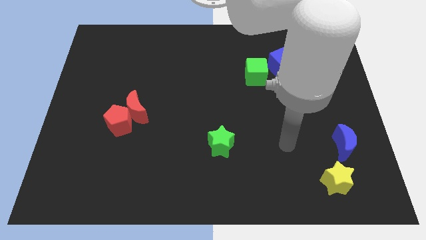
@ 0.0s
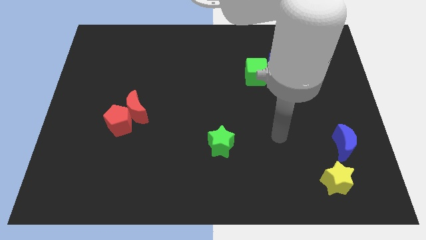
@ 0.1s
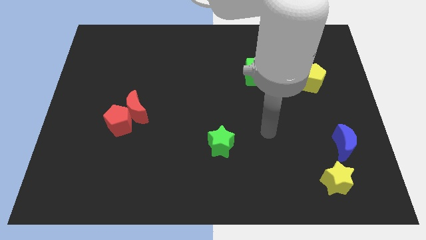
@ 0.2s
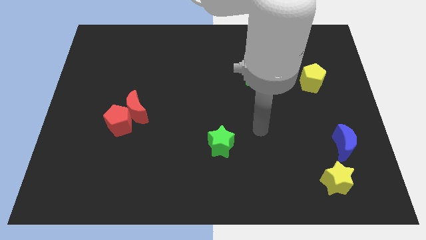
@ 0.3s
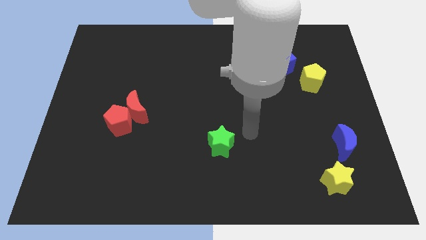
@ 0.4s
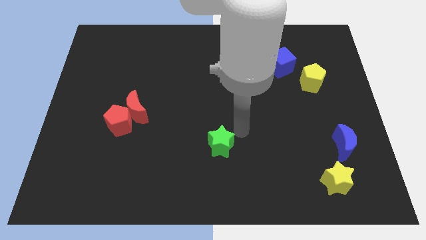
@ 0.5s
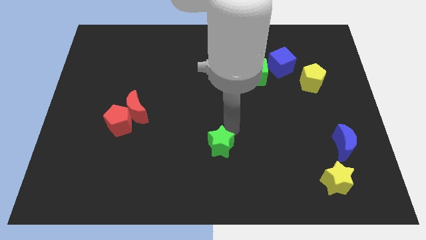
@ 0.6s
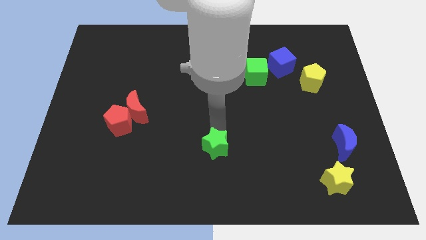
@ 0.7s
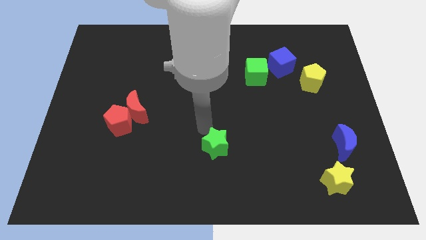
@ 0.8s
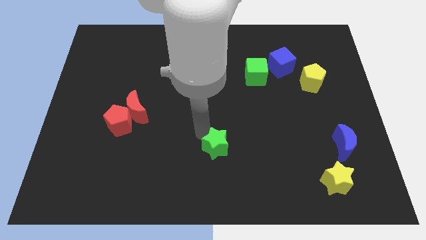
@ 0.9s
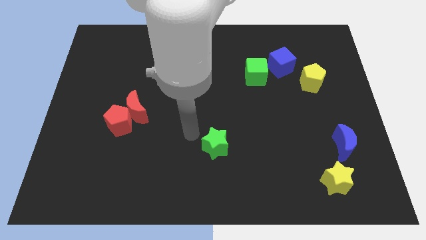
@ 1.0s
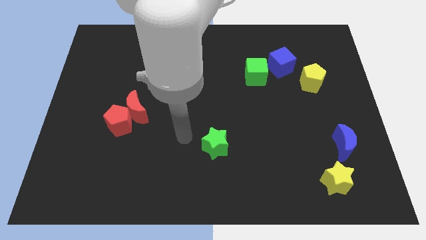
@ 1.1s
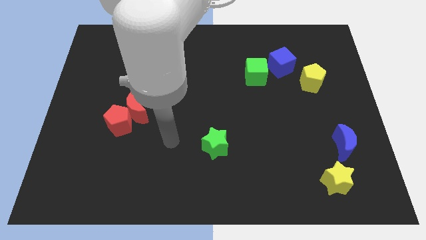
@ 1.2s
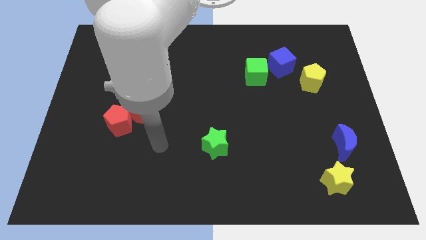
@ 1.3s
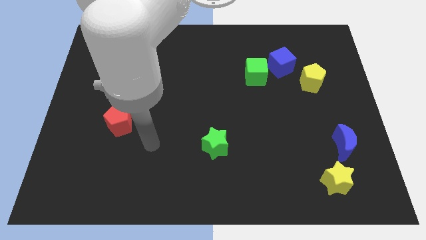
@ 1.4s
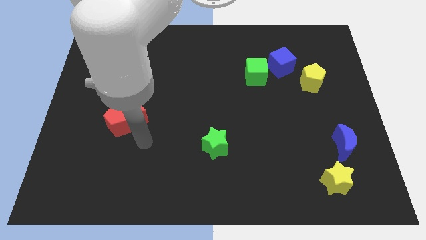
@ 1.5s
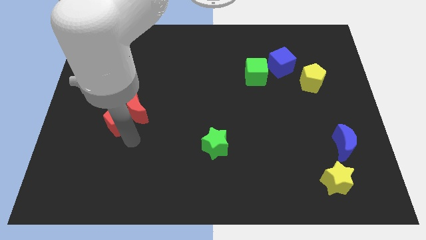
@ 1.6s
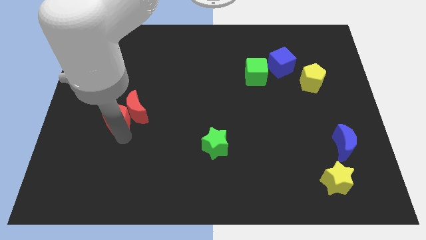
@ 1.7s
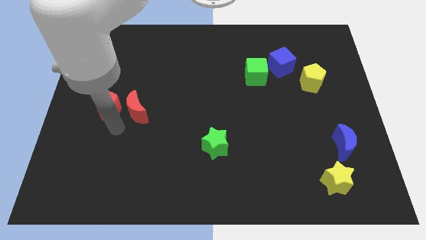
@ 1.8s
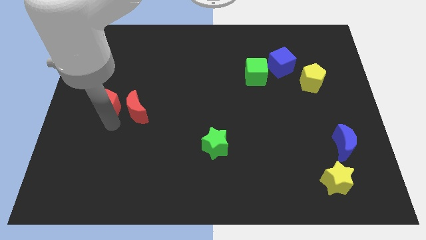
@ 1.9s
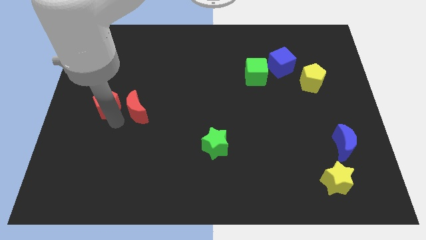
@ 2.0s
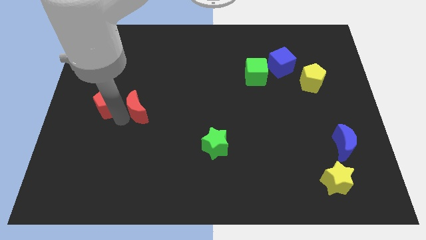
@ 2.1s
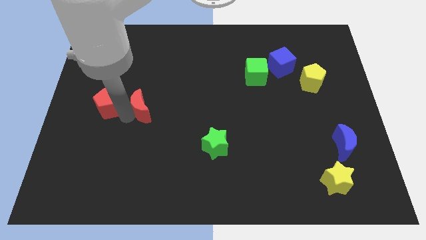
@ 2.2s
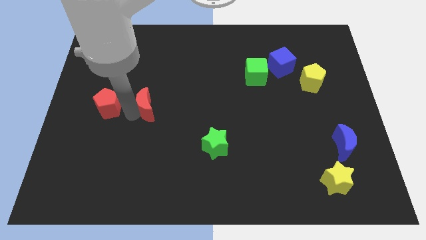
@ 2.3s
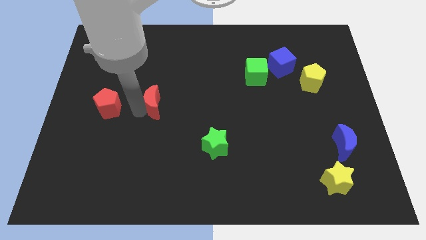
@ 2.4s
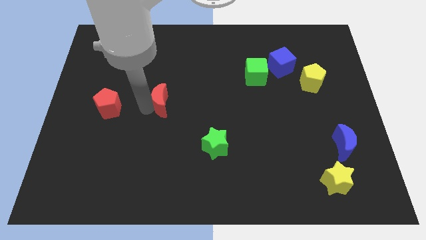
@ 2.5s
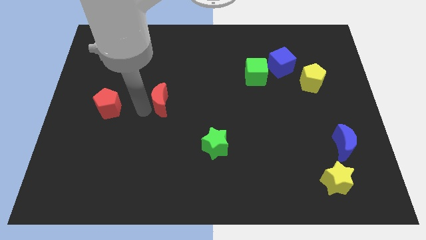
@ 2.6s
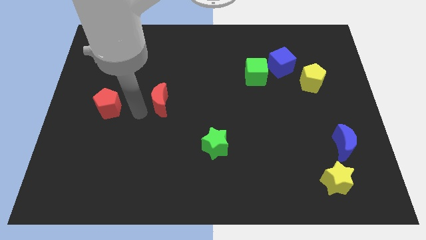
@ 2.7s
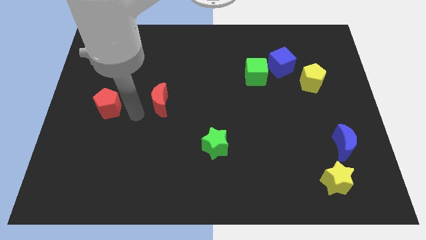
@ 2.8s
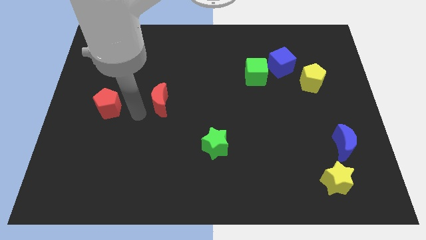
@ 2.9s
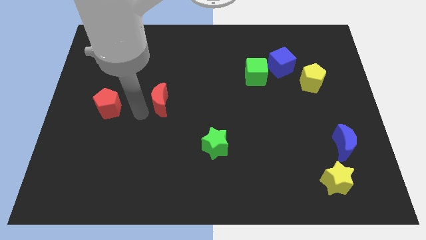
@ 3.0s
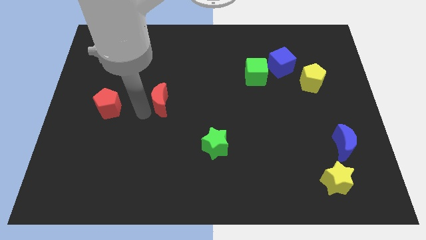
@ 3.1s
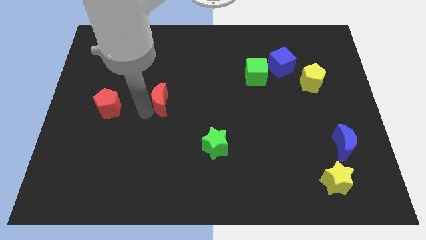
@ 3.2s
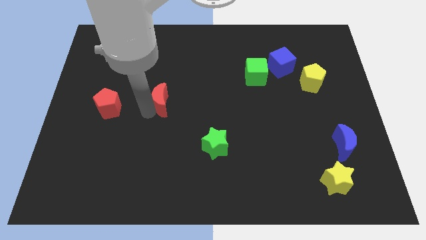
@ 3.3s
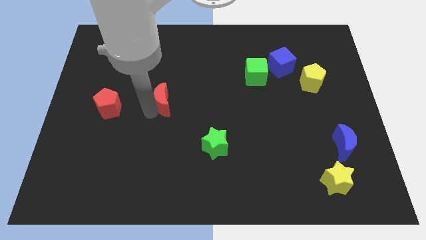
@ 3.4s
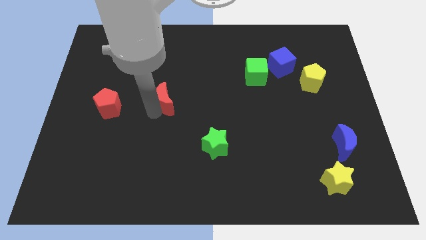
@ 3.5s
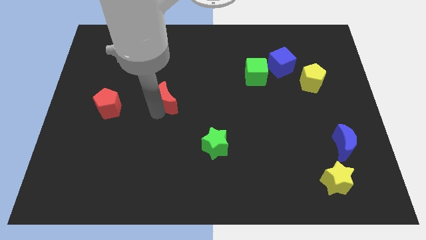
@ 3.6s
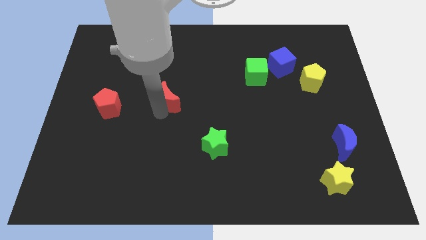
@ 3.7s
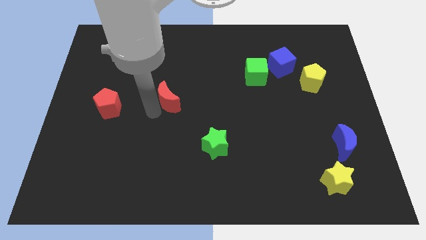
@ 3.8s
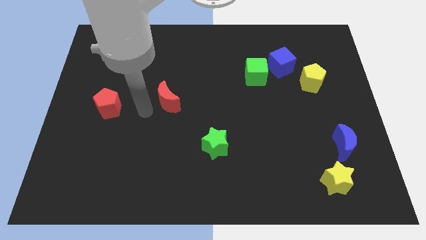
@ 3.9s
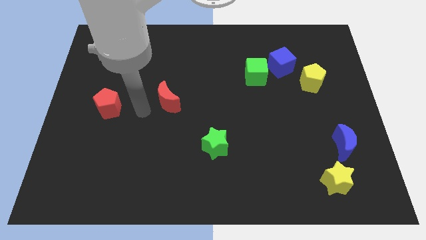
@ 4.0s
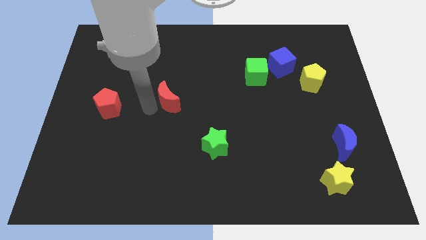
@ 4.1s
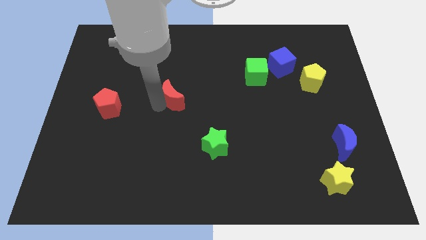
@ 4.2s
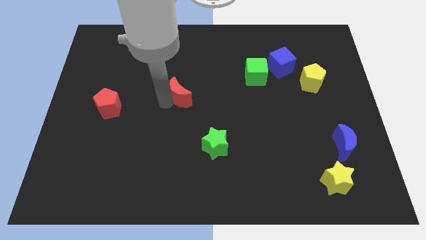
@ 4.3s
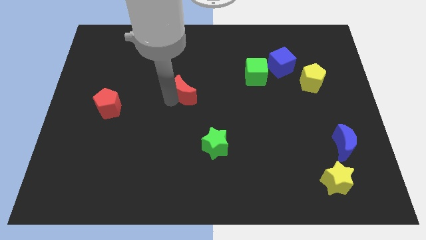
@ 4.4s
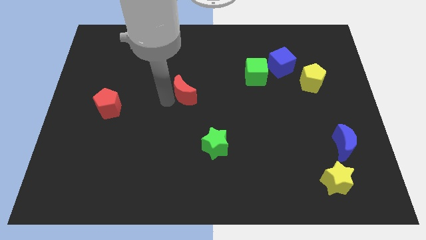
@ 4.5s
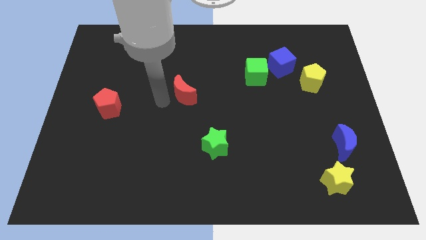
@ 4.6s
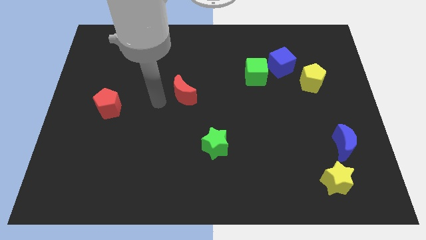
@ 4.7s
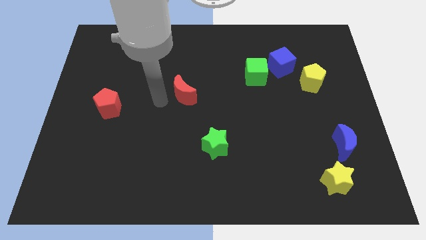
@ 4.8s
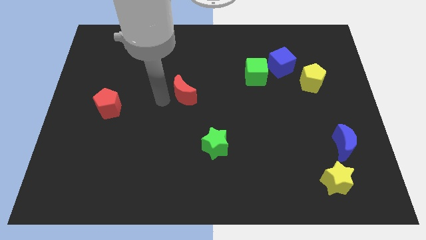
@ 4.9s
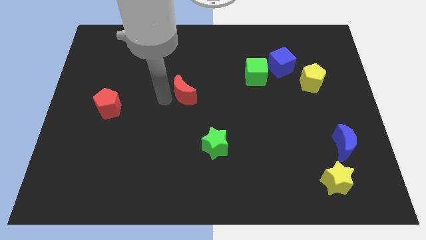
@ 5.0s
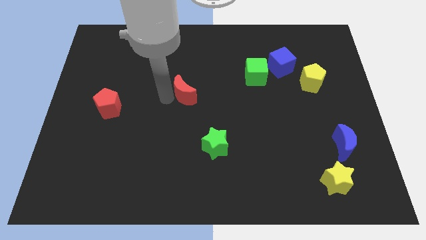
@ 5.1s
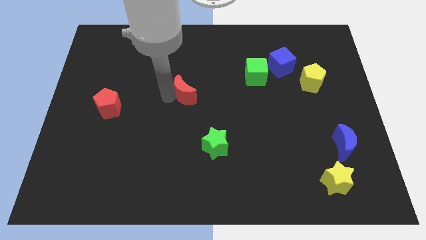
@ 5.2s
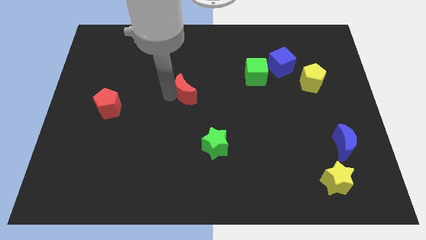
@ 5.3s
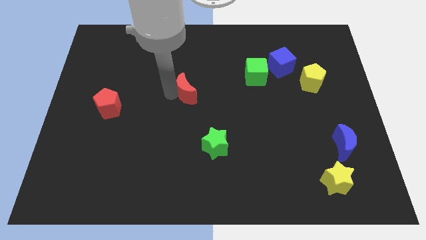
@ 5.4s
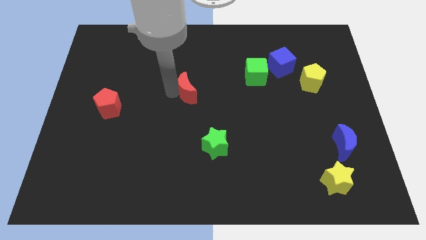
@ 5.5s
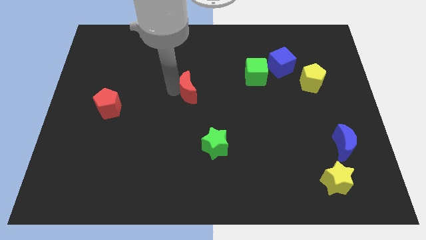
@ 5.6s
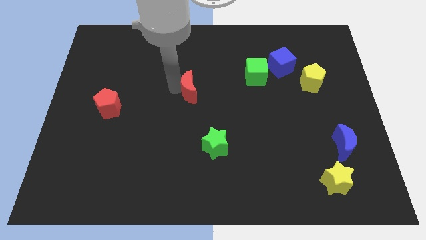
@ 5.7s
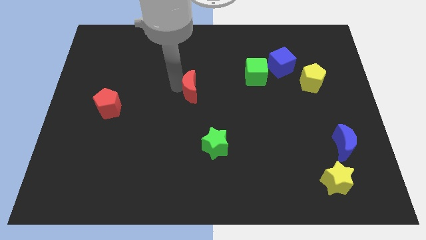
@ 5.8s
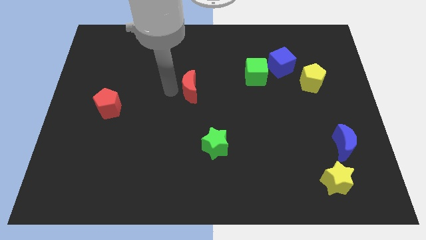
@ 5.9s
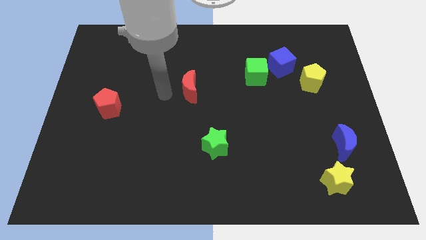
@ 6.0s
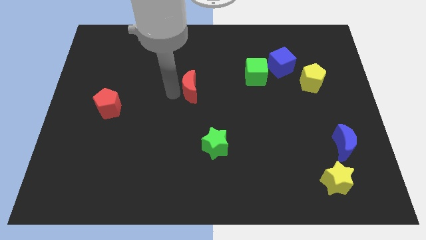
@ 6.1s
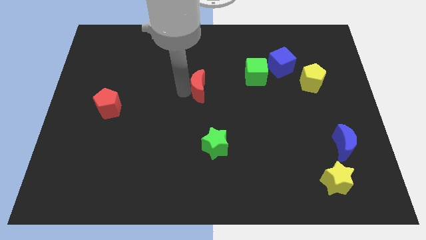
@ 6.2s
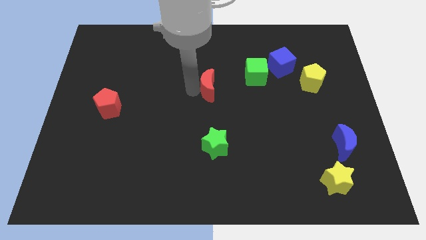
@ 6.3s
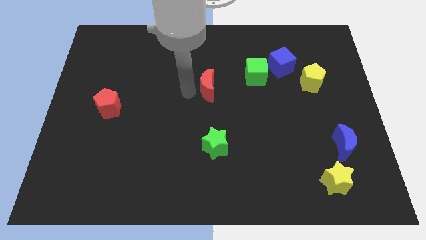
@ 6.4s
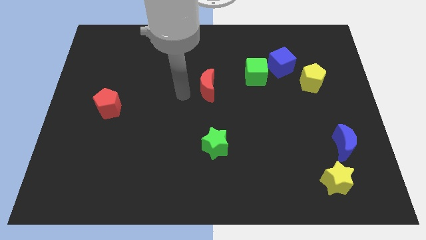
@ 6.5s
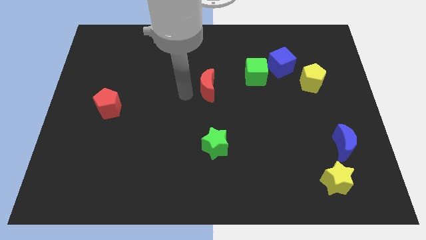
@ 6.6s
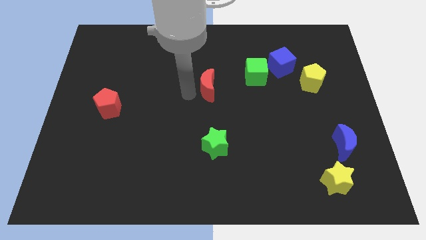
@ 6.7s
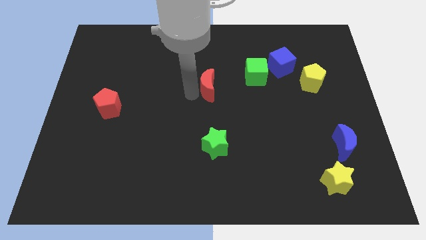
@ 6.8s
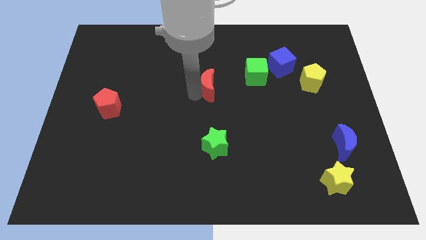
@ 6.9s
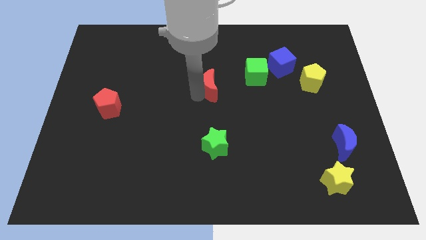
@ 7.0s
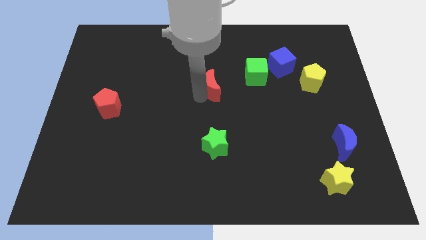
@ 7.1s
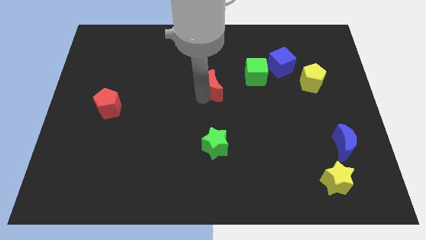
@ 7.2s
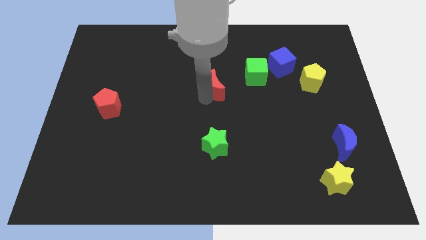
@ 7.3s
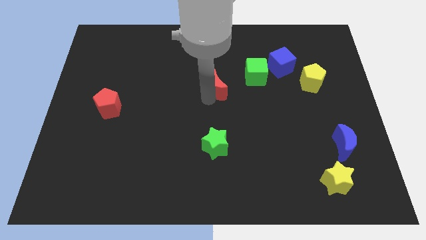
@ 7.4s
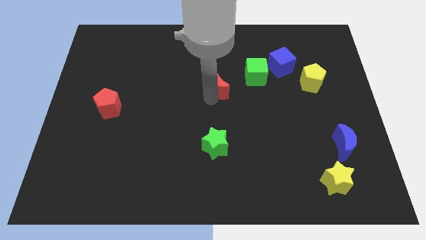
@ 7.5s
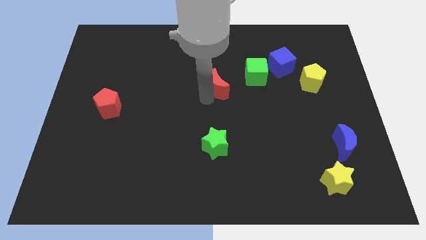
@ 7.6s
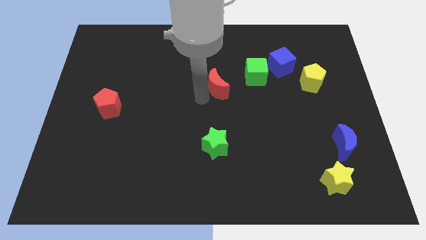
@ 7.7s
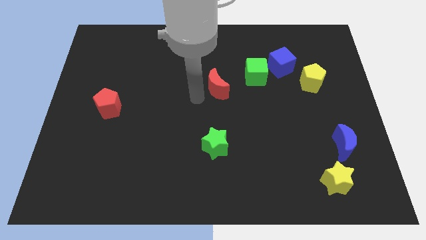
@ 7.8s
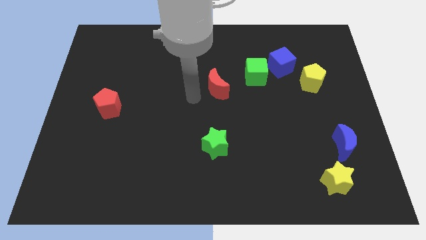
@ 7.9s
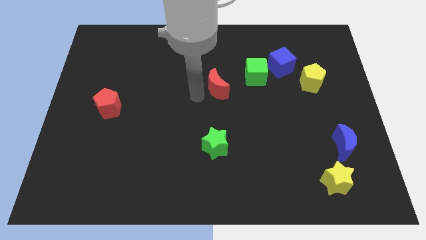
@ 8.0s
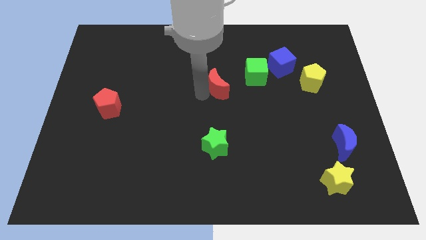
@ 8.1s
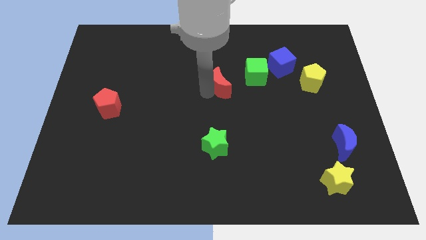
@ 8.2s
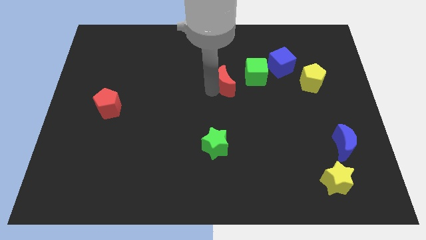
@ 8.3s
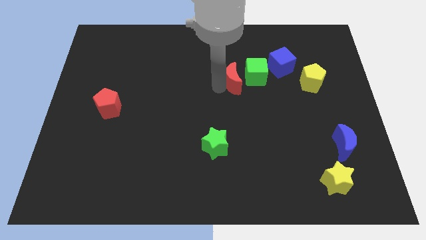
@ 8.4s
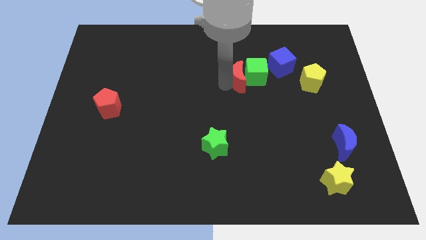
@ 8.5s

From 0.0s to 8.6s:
slide the red moon close to the green cube
